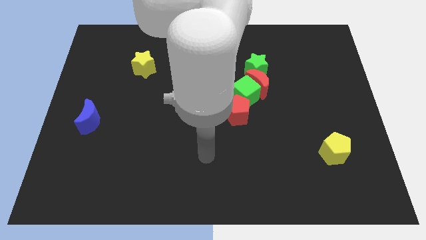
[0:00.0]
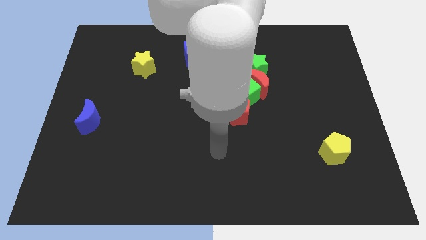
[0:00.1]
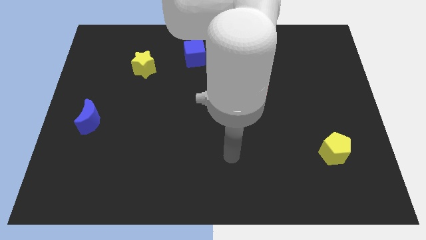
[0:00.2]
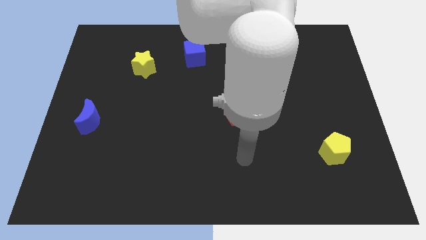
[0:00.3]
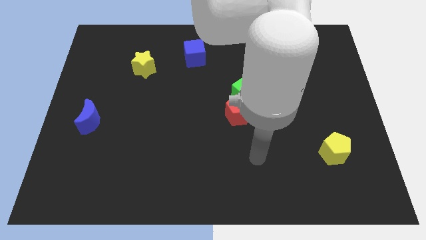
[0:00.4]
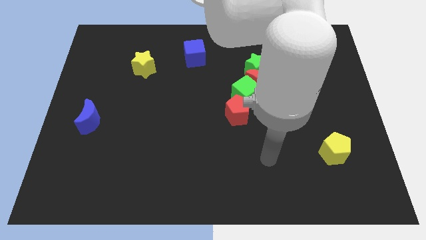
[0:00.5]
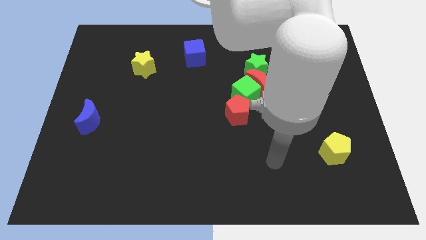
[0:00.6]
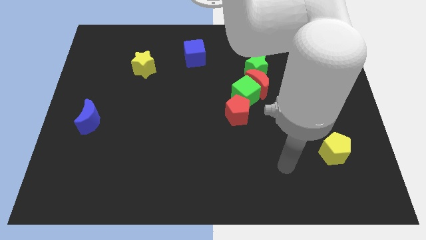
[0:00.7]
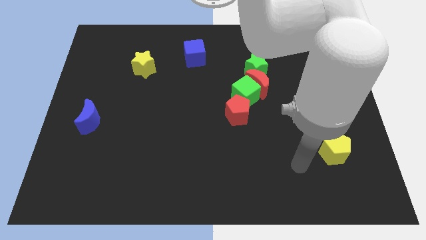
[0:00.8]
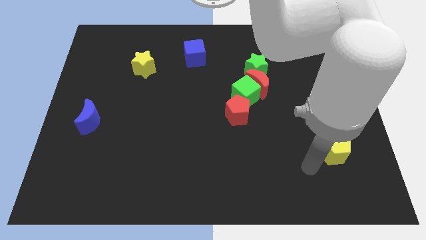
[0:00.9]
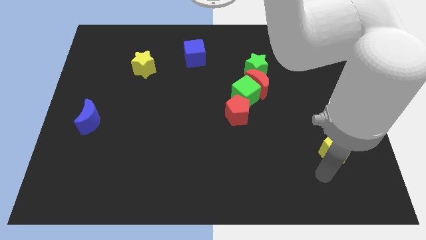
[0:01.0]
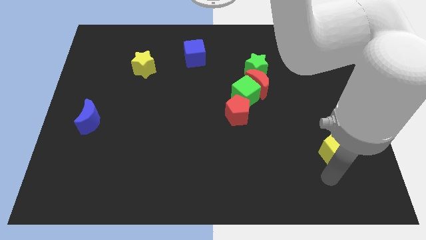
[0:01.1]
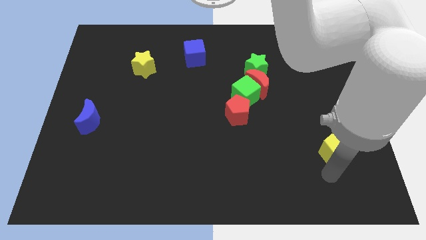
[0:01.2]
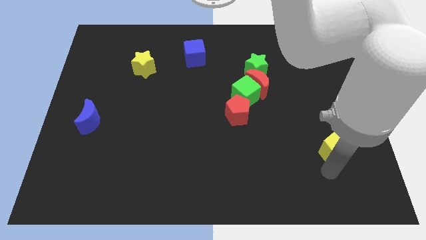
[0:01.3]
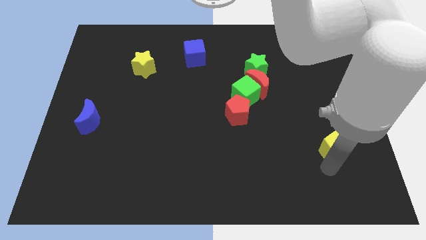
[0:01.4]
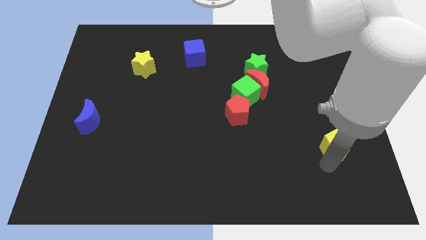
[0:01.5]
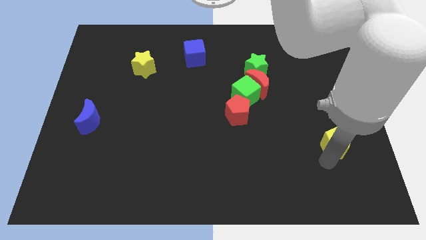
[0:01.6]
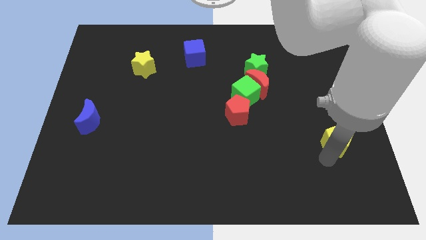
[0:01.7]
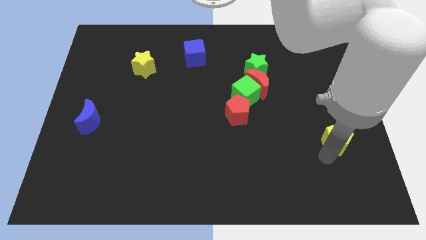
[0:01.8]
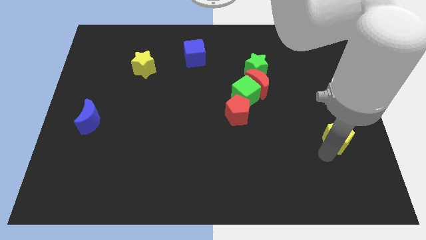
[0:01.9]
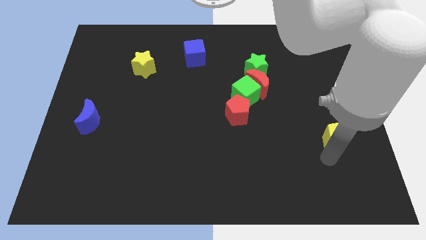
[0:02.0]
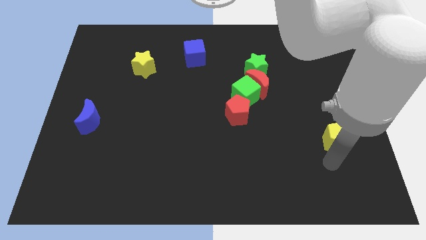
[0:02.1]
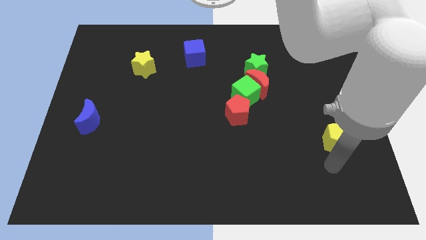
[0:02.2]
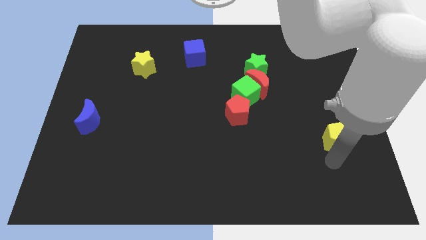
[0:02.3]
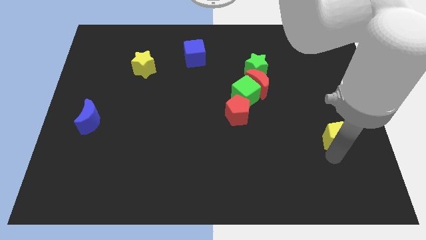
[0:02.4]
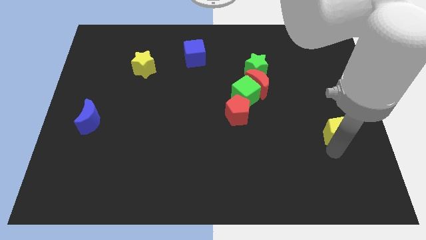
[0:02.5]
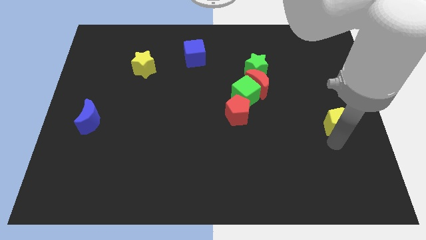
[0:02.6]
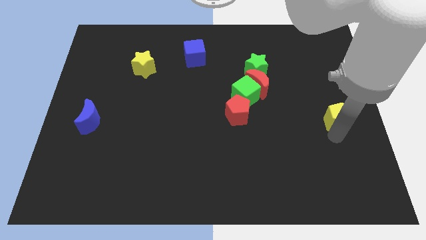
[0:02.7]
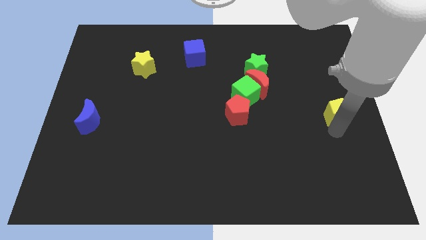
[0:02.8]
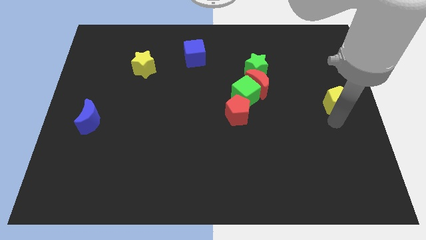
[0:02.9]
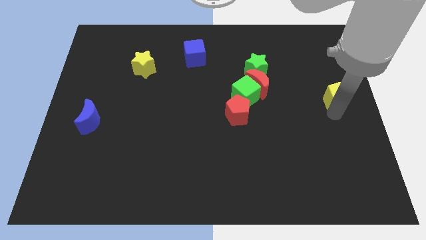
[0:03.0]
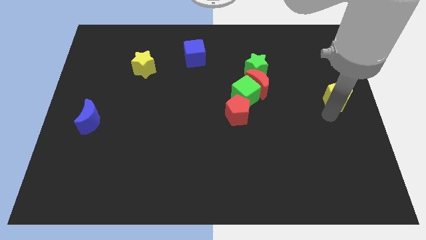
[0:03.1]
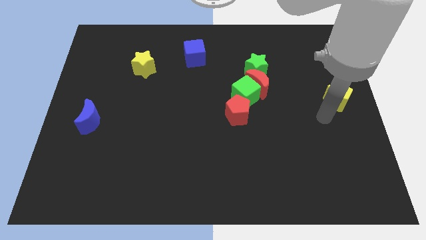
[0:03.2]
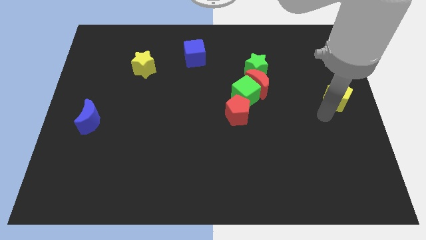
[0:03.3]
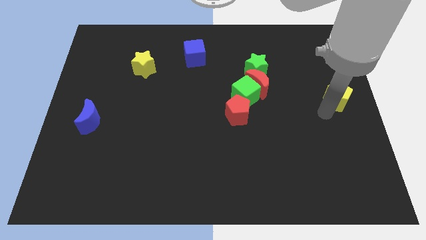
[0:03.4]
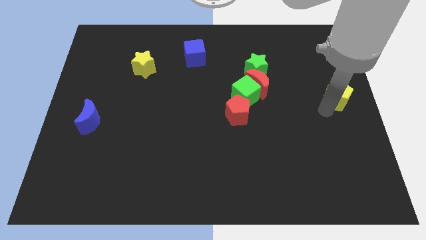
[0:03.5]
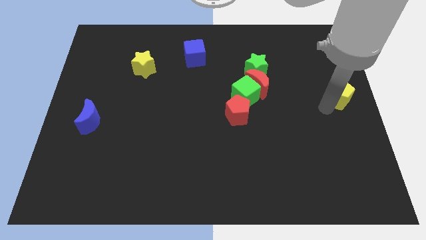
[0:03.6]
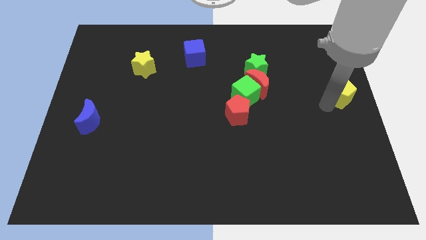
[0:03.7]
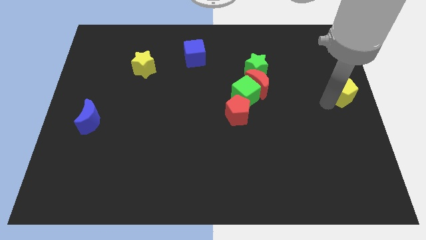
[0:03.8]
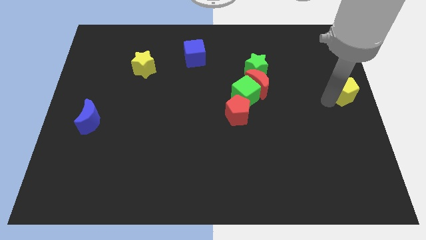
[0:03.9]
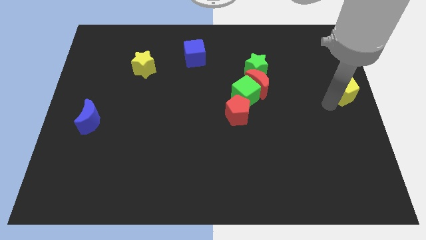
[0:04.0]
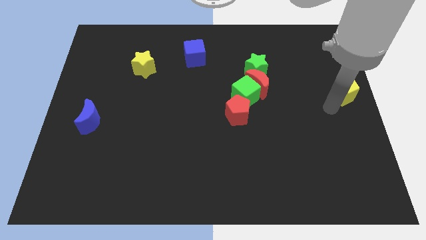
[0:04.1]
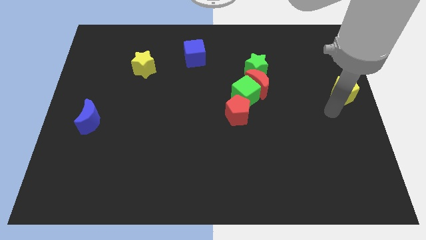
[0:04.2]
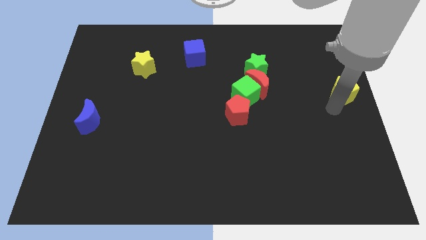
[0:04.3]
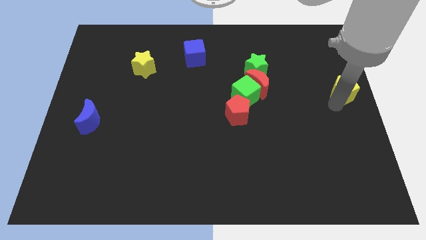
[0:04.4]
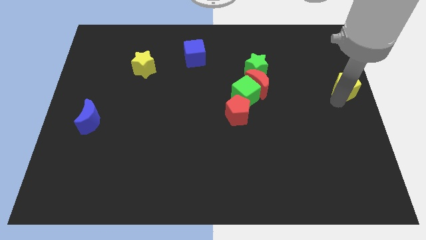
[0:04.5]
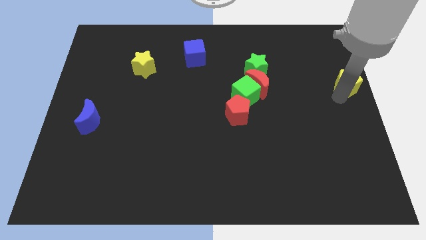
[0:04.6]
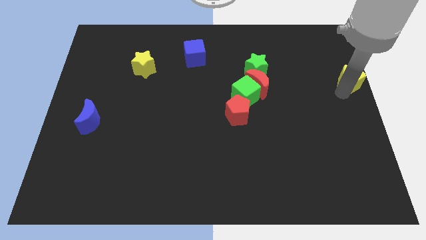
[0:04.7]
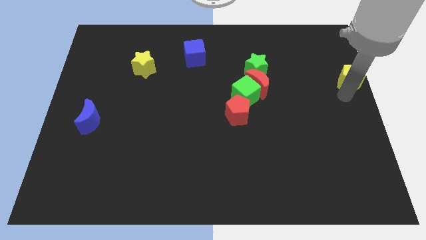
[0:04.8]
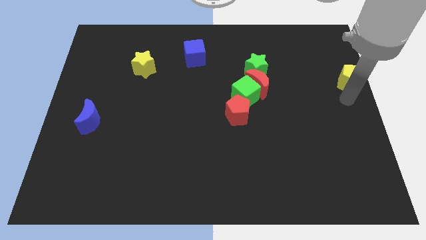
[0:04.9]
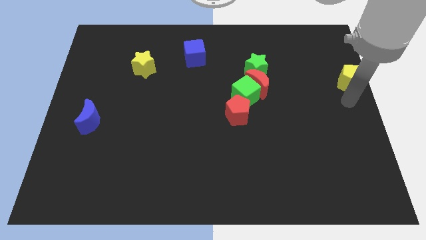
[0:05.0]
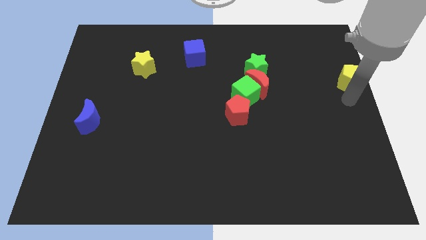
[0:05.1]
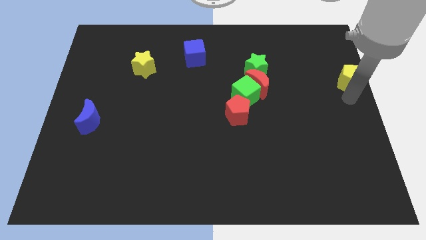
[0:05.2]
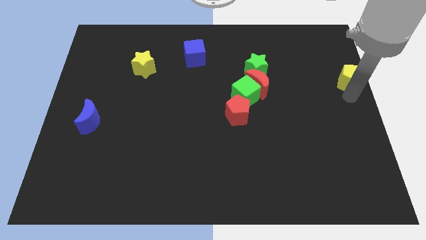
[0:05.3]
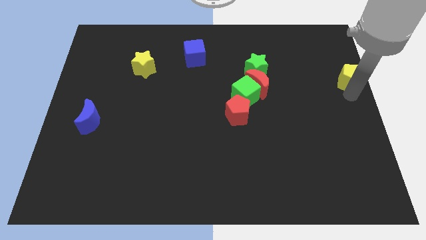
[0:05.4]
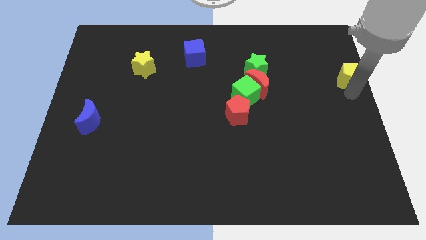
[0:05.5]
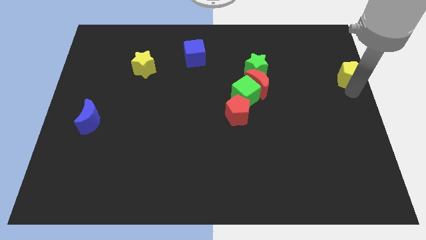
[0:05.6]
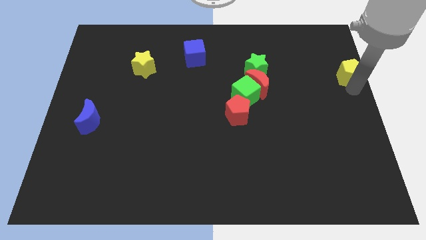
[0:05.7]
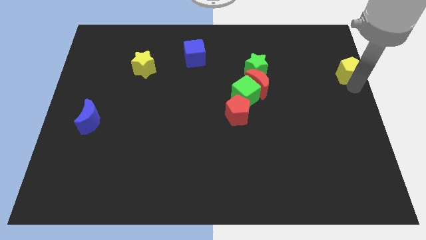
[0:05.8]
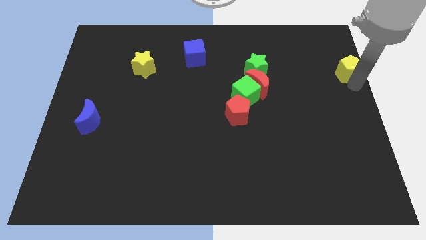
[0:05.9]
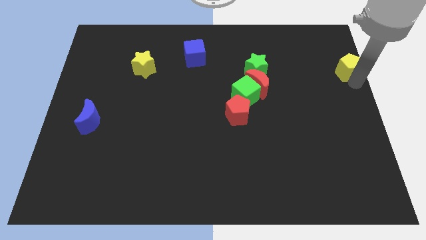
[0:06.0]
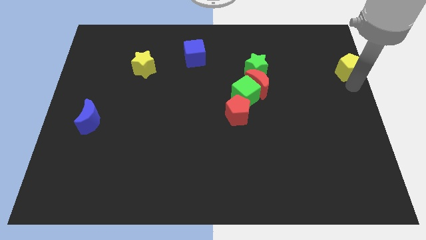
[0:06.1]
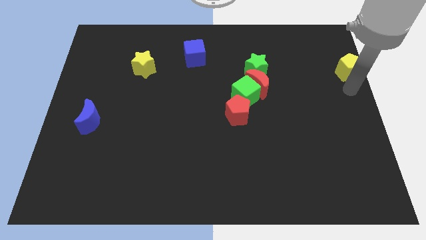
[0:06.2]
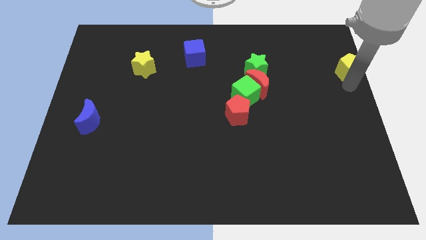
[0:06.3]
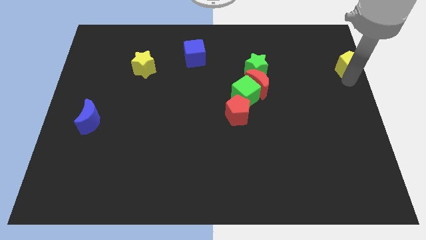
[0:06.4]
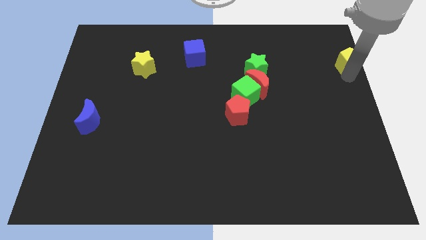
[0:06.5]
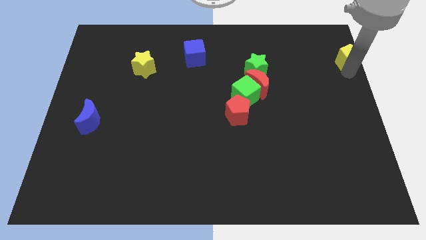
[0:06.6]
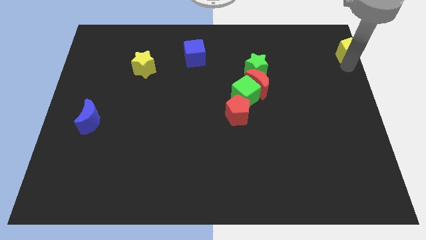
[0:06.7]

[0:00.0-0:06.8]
put the yellow pentagon to the top right
